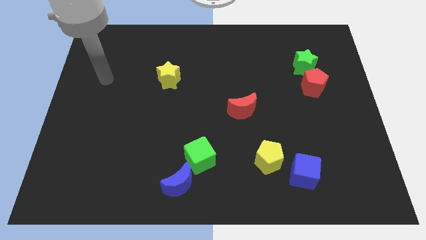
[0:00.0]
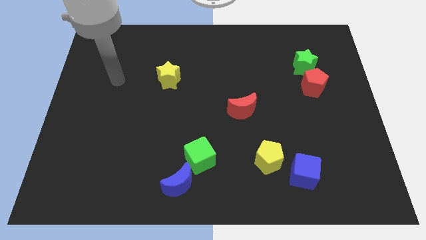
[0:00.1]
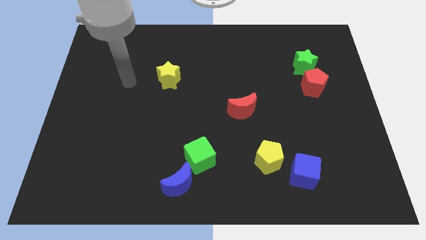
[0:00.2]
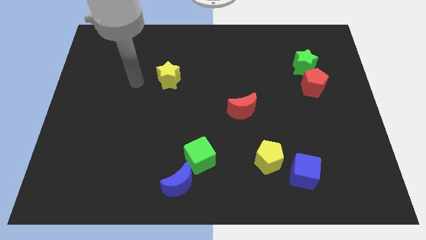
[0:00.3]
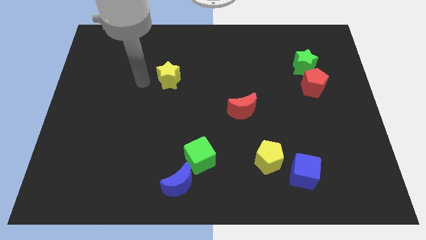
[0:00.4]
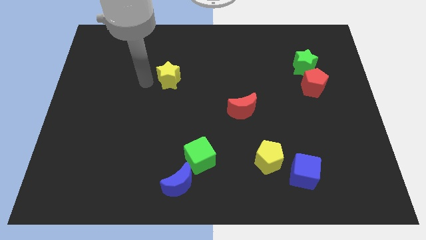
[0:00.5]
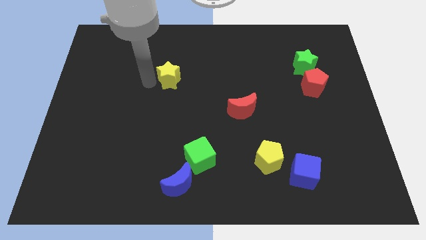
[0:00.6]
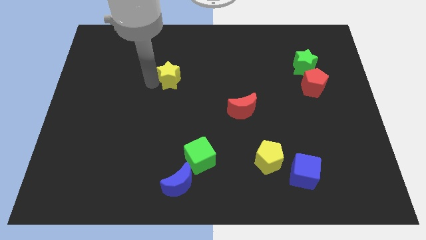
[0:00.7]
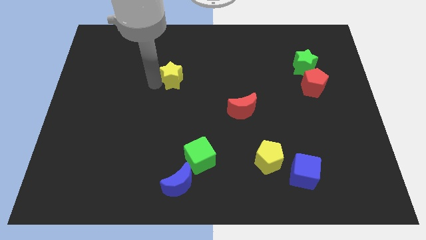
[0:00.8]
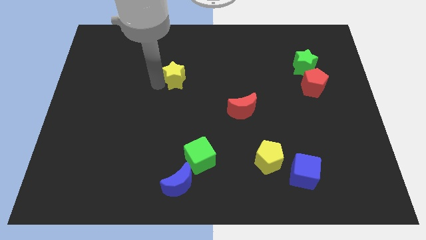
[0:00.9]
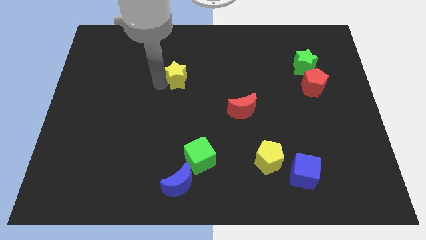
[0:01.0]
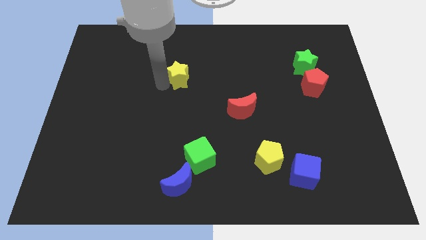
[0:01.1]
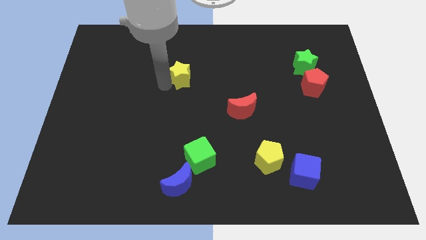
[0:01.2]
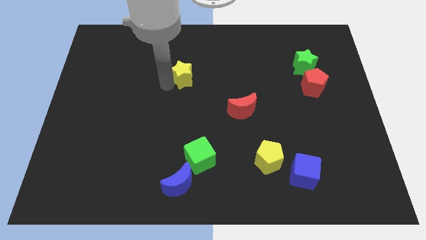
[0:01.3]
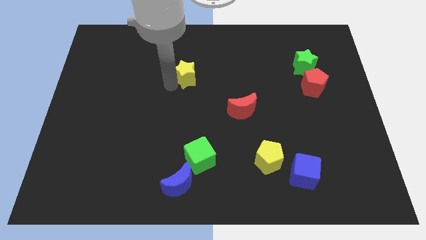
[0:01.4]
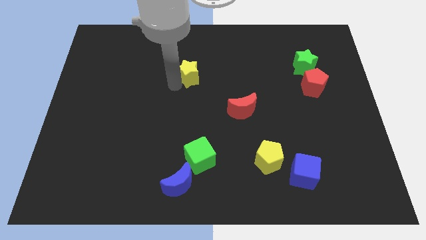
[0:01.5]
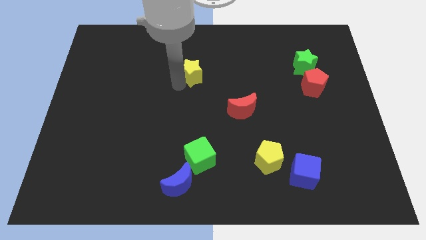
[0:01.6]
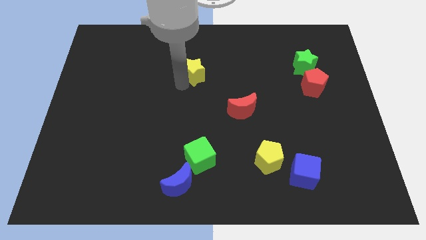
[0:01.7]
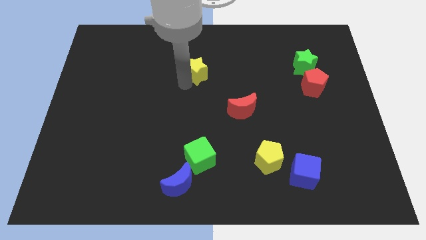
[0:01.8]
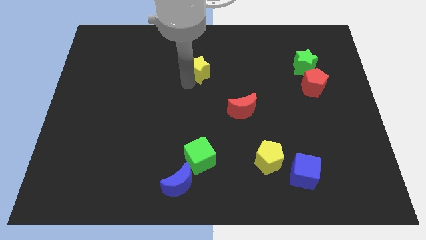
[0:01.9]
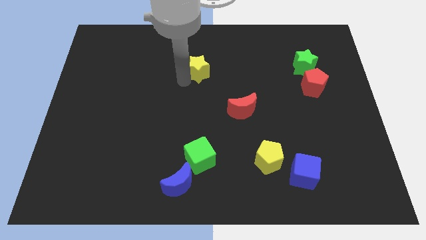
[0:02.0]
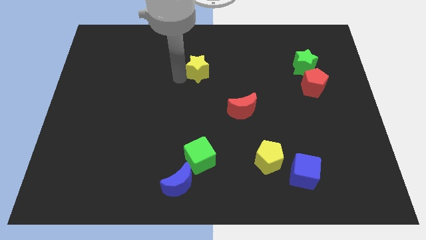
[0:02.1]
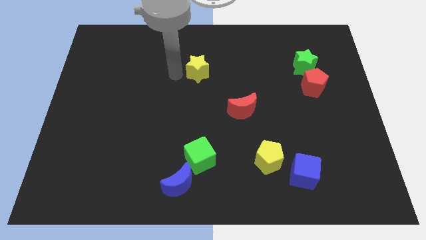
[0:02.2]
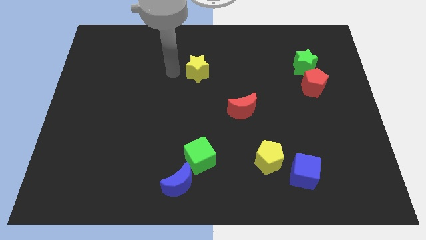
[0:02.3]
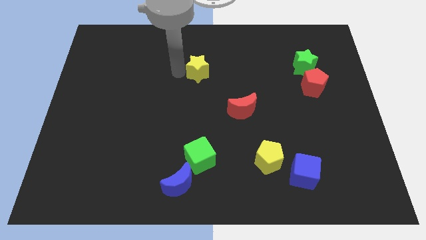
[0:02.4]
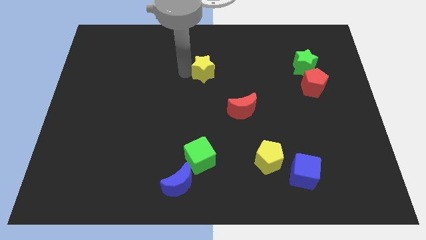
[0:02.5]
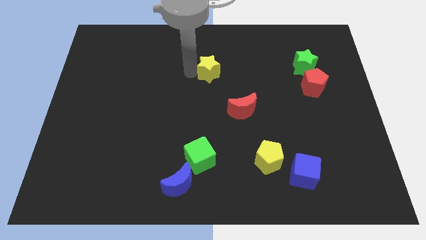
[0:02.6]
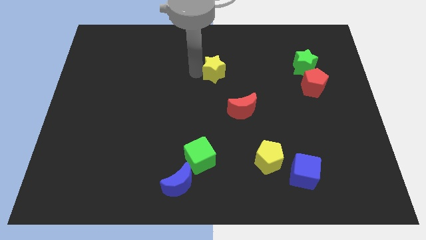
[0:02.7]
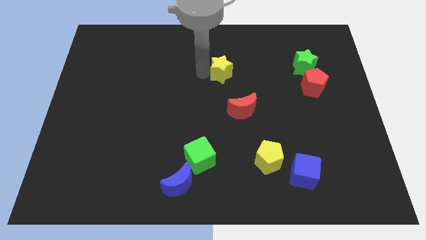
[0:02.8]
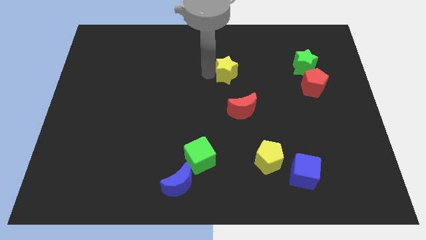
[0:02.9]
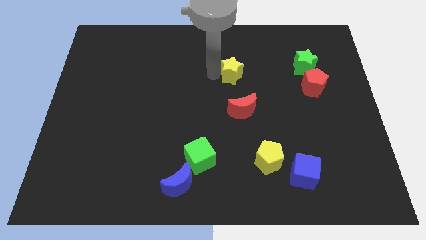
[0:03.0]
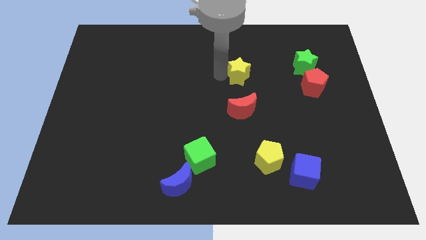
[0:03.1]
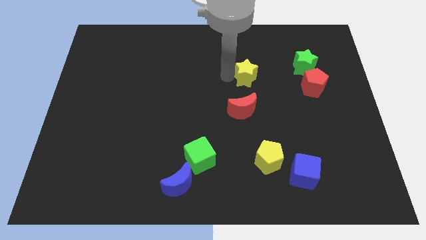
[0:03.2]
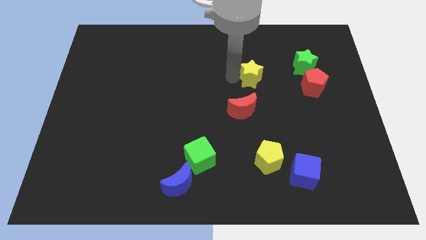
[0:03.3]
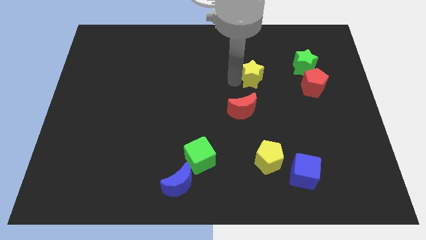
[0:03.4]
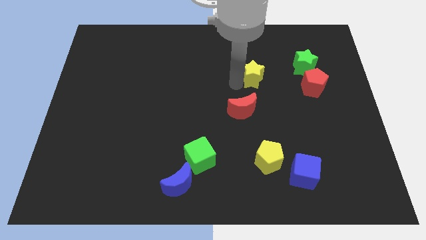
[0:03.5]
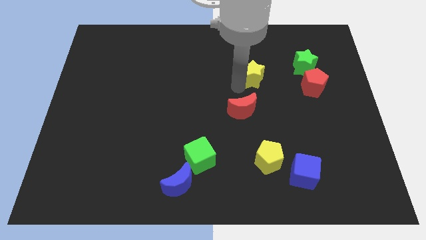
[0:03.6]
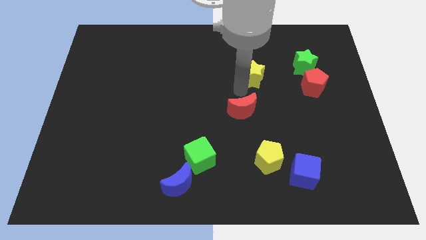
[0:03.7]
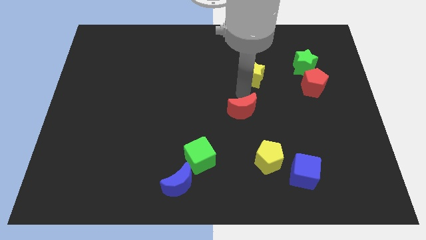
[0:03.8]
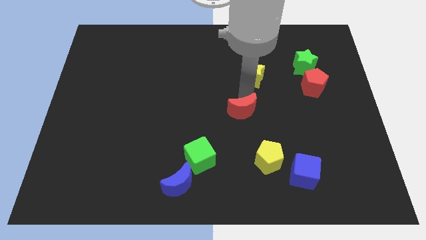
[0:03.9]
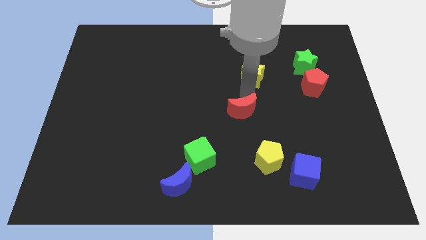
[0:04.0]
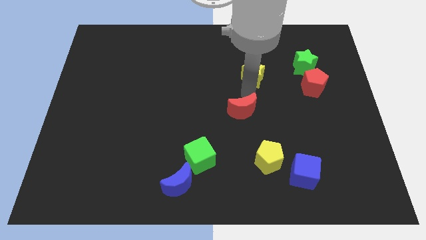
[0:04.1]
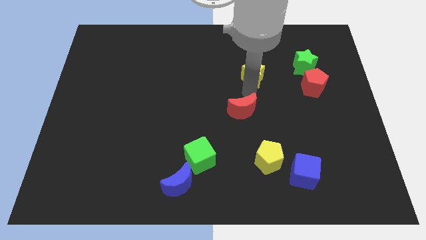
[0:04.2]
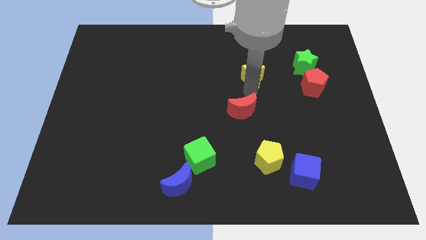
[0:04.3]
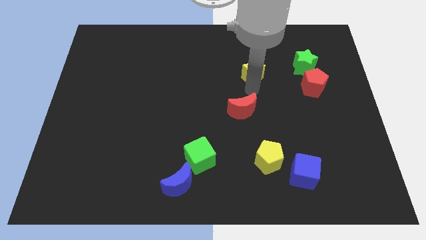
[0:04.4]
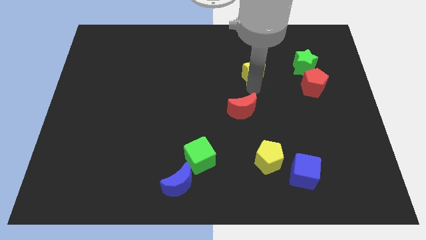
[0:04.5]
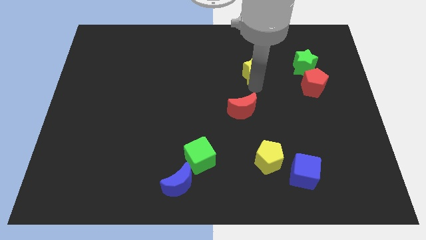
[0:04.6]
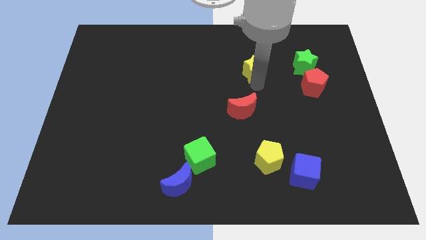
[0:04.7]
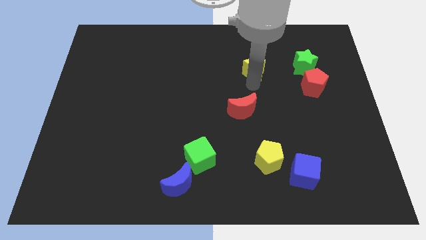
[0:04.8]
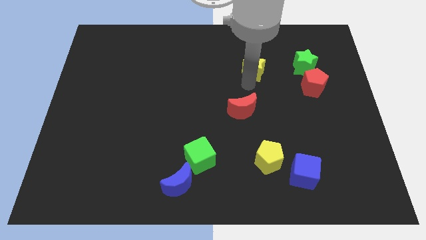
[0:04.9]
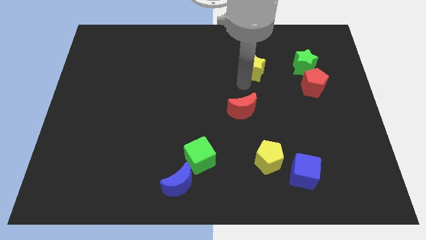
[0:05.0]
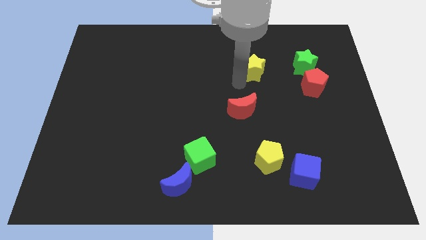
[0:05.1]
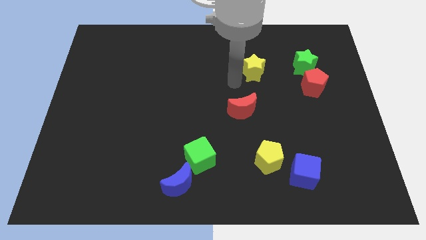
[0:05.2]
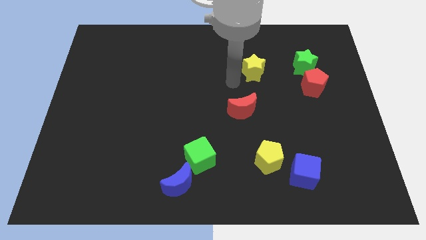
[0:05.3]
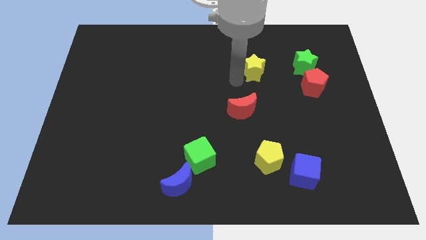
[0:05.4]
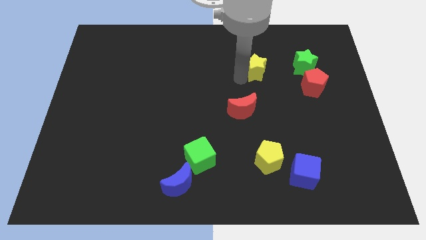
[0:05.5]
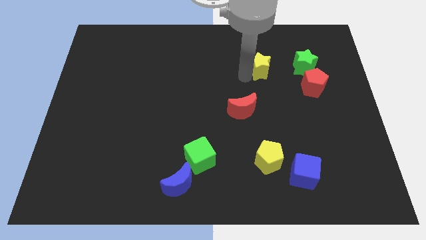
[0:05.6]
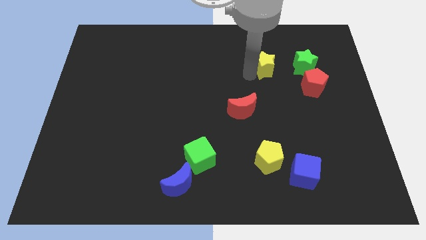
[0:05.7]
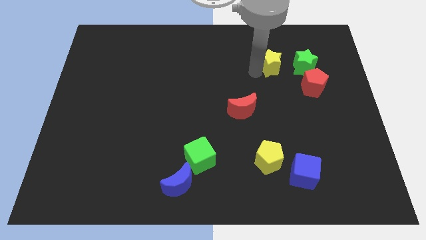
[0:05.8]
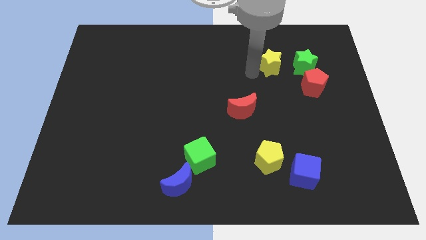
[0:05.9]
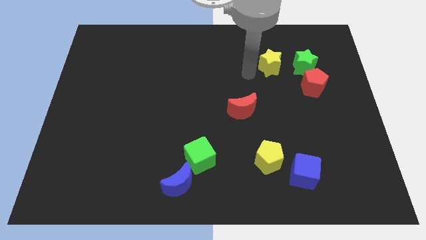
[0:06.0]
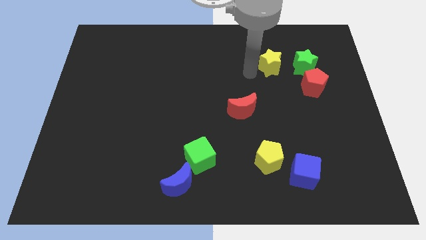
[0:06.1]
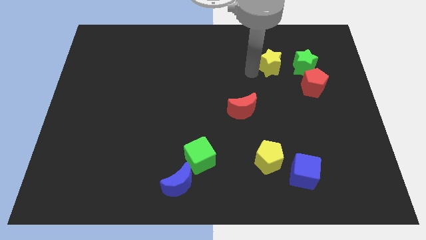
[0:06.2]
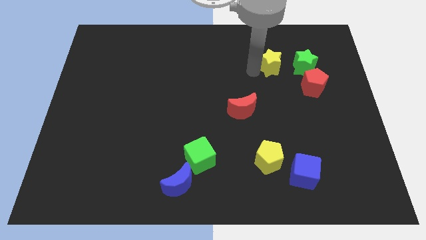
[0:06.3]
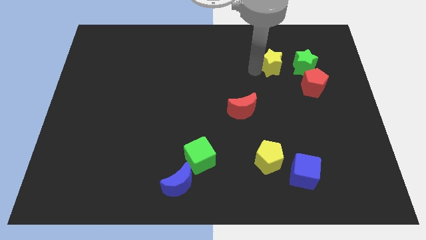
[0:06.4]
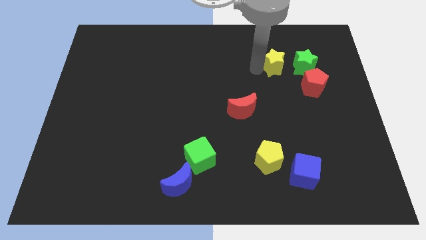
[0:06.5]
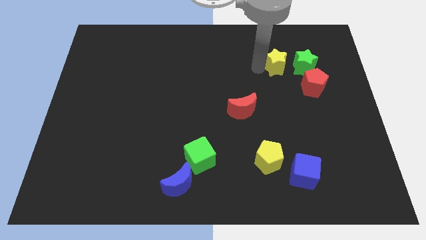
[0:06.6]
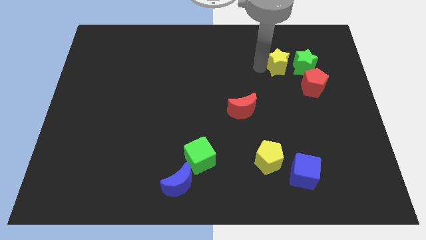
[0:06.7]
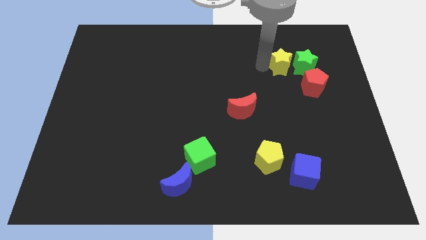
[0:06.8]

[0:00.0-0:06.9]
move the yellow star next to the green star

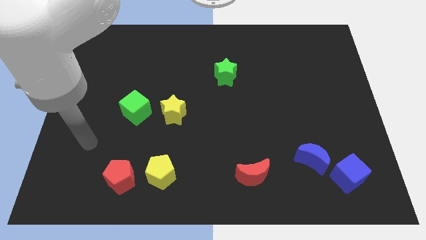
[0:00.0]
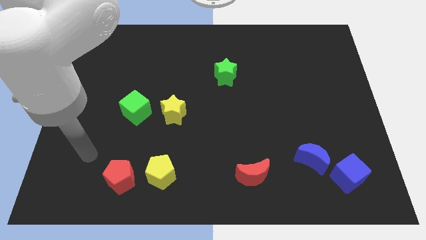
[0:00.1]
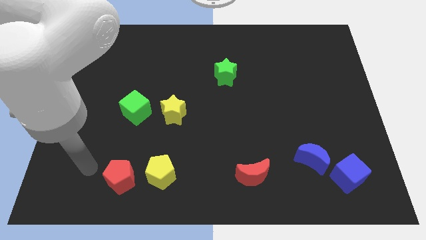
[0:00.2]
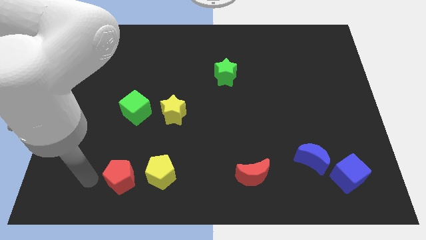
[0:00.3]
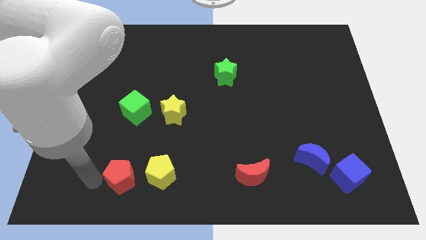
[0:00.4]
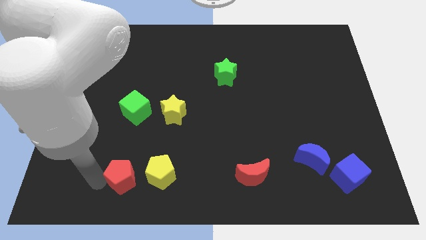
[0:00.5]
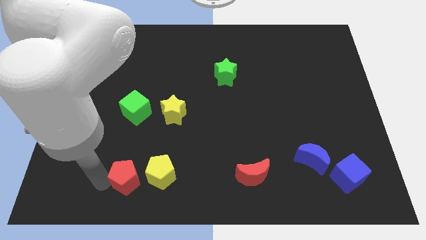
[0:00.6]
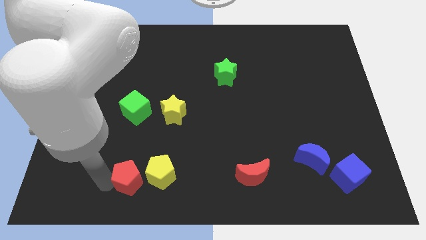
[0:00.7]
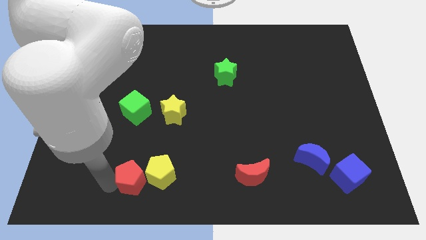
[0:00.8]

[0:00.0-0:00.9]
put the red pentagon next to the yellow pentagon
